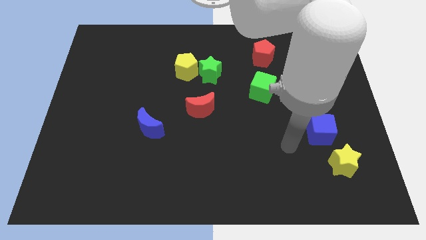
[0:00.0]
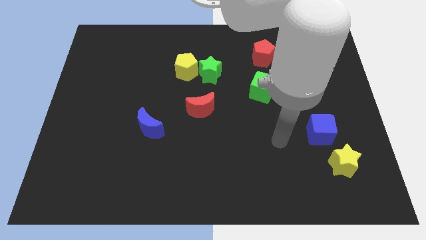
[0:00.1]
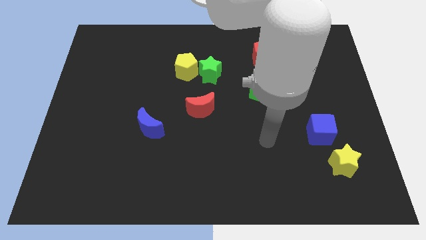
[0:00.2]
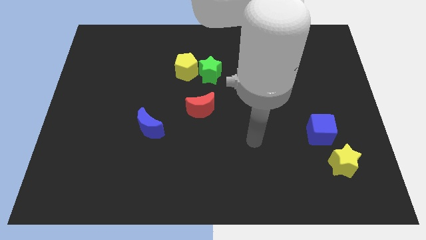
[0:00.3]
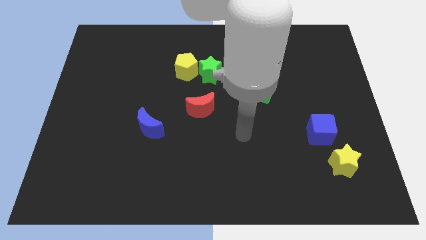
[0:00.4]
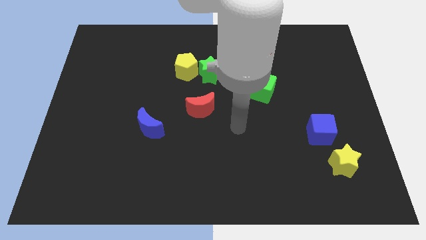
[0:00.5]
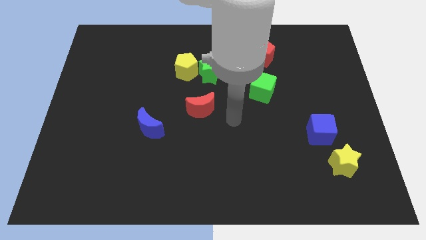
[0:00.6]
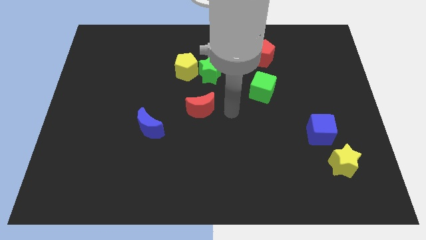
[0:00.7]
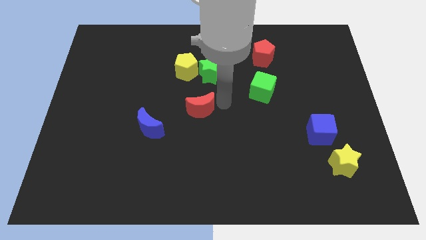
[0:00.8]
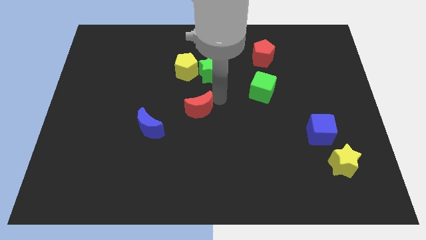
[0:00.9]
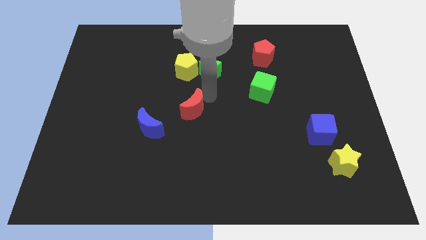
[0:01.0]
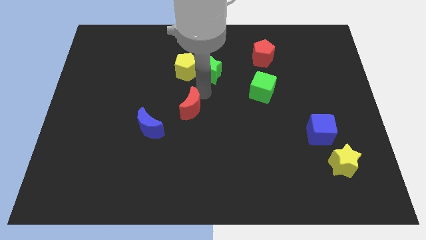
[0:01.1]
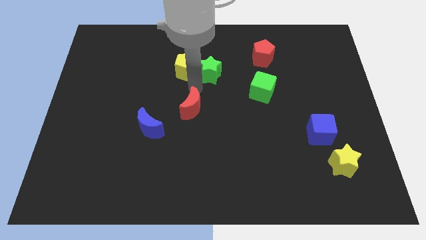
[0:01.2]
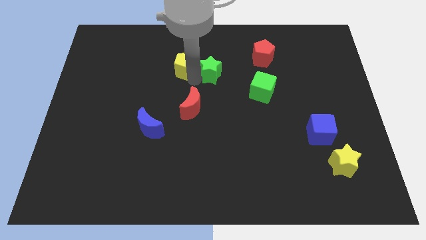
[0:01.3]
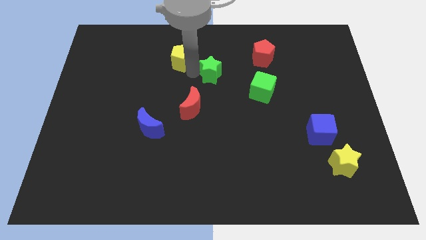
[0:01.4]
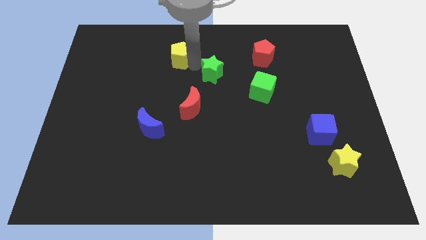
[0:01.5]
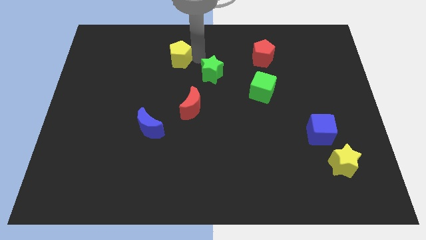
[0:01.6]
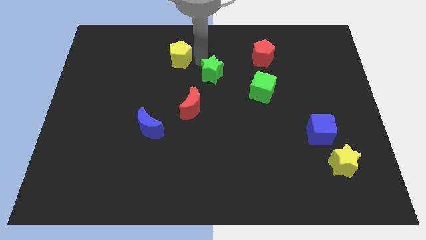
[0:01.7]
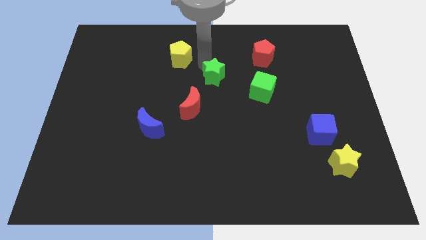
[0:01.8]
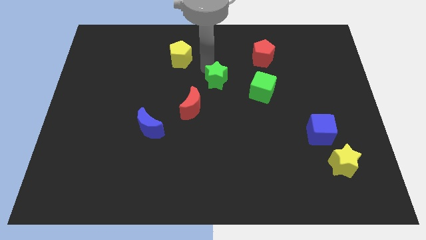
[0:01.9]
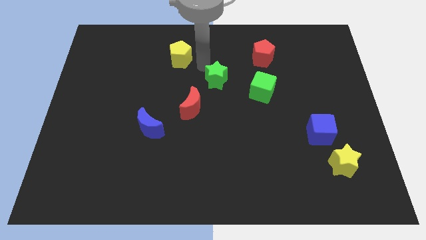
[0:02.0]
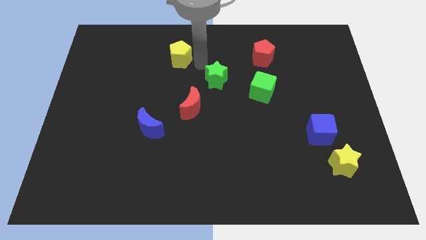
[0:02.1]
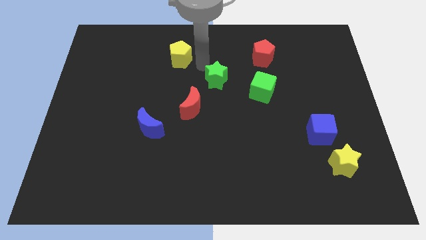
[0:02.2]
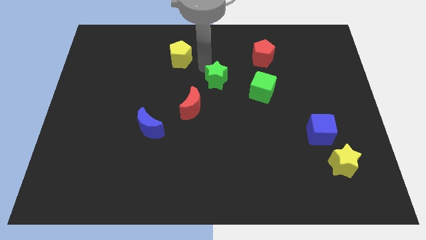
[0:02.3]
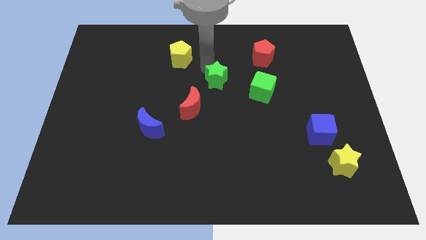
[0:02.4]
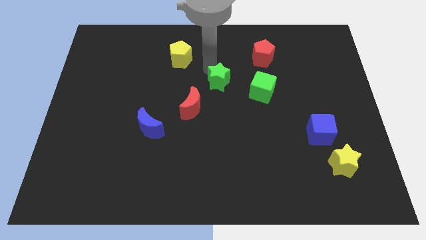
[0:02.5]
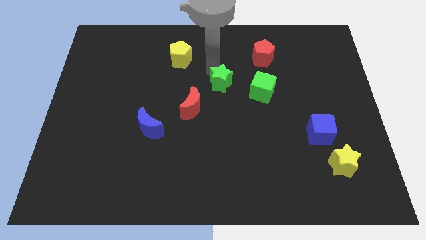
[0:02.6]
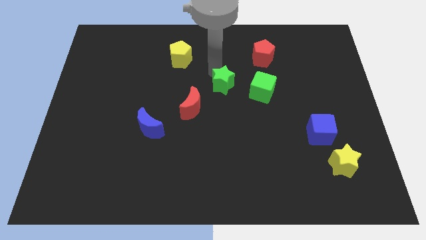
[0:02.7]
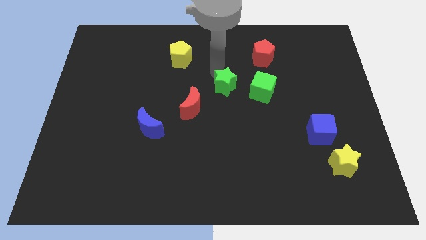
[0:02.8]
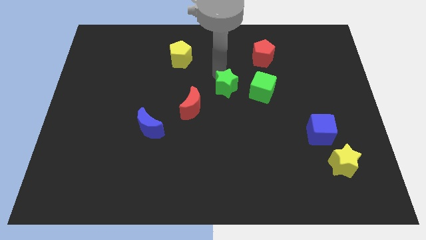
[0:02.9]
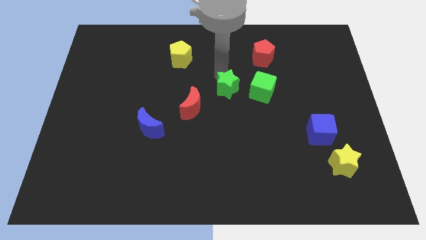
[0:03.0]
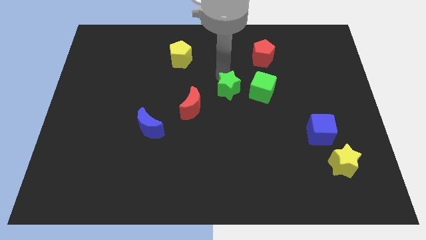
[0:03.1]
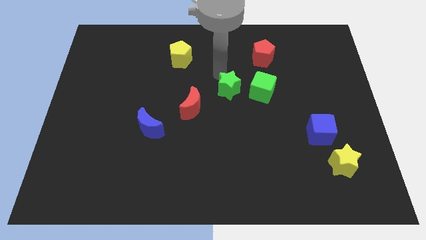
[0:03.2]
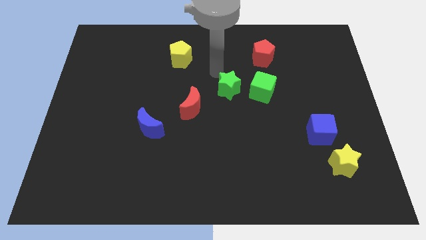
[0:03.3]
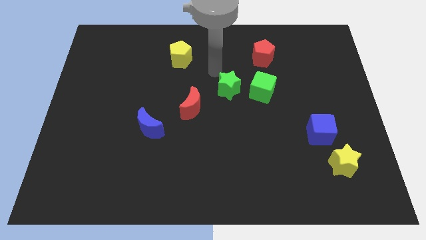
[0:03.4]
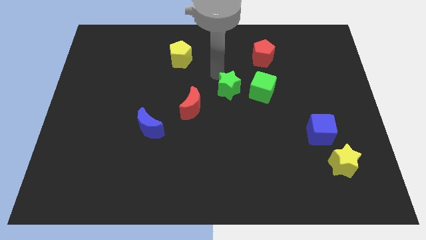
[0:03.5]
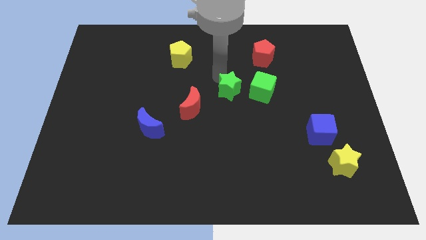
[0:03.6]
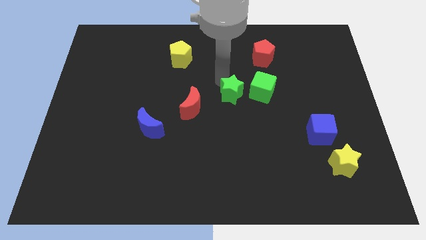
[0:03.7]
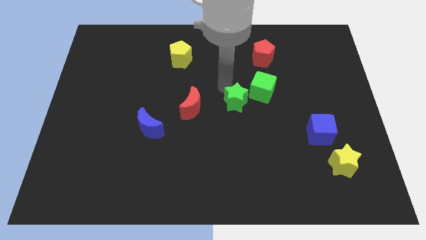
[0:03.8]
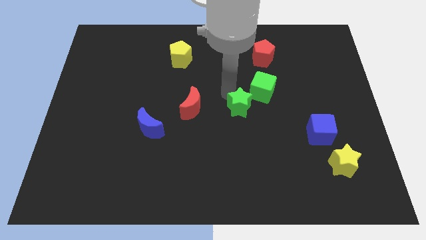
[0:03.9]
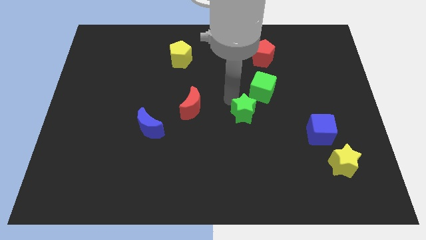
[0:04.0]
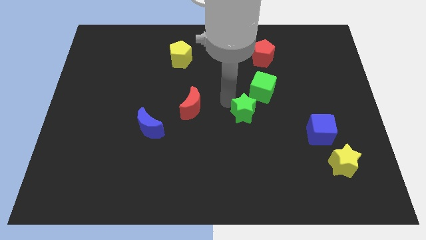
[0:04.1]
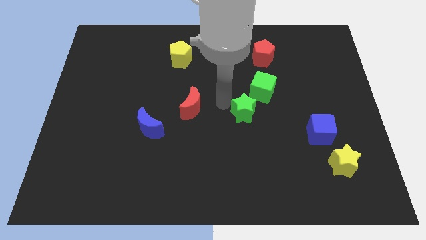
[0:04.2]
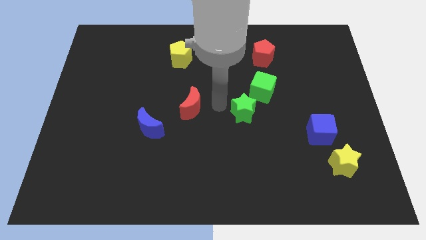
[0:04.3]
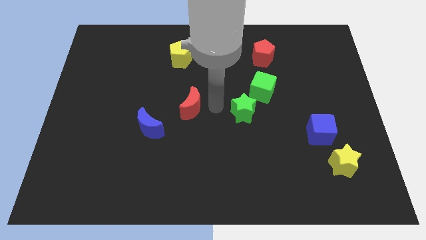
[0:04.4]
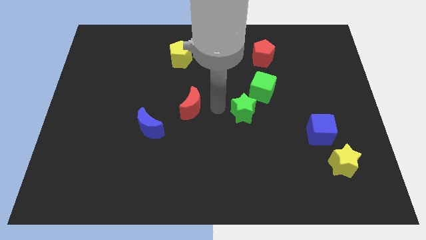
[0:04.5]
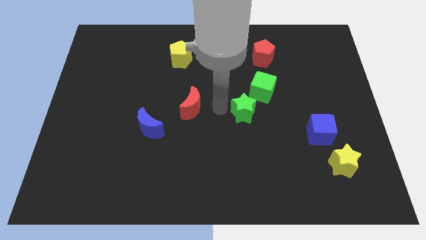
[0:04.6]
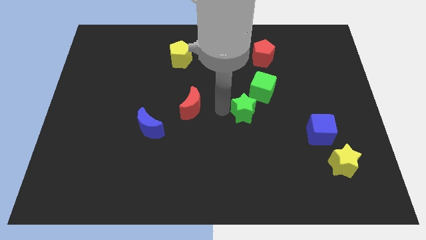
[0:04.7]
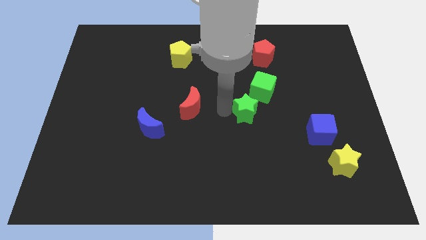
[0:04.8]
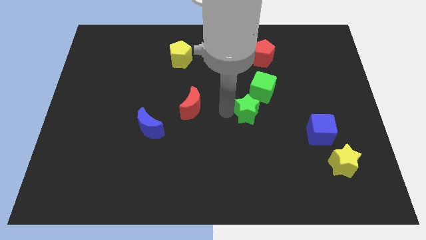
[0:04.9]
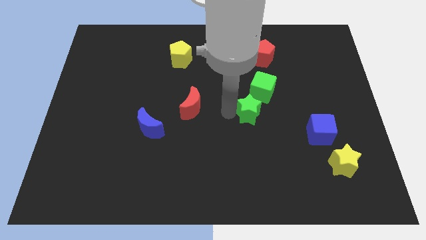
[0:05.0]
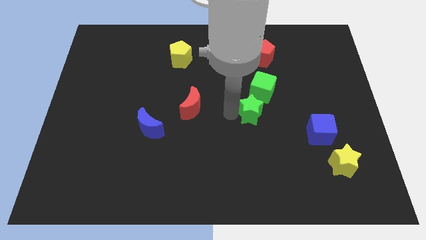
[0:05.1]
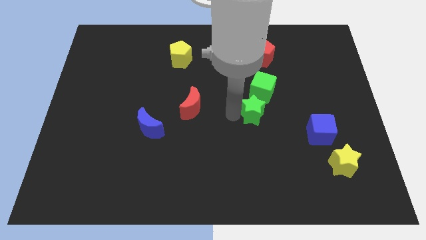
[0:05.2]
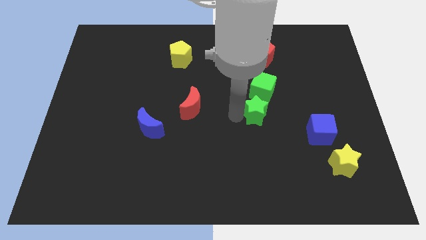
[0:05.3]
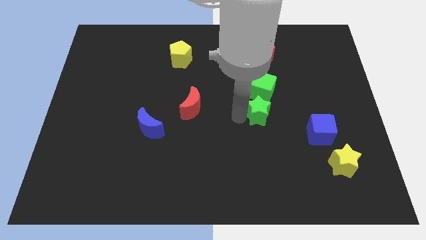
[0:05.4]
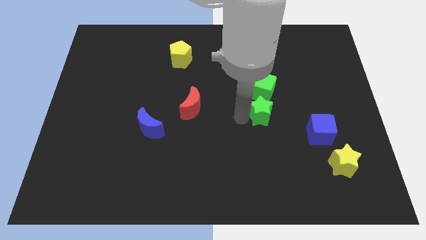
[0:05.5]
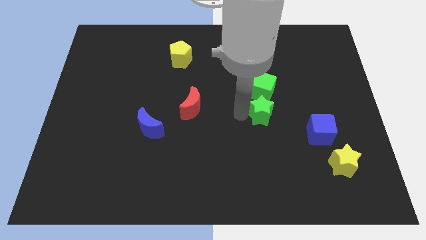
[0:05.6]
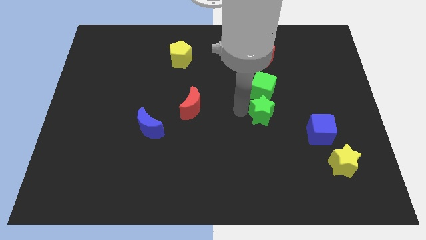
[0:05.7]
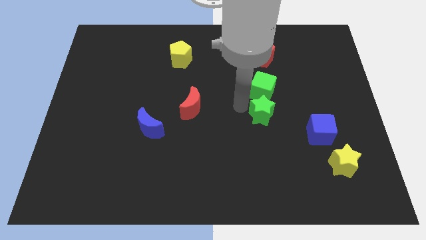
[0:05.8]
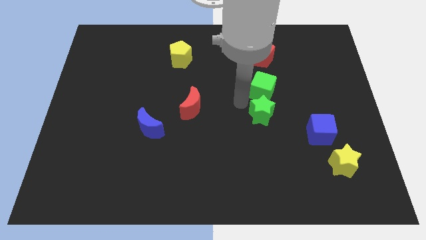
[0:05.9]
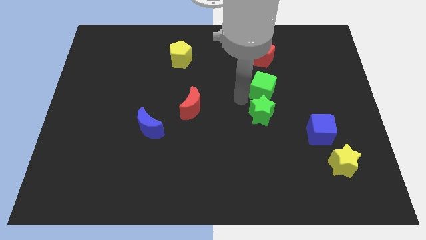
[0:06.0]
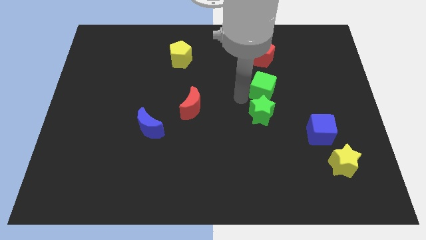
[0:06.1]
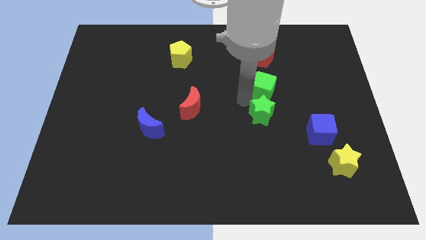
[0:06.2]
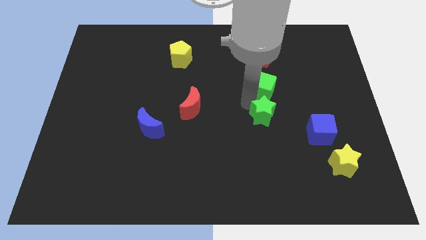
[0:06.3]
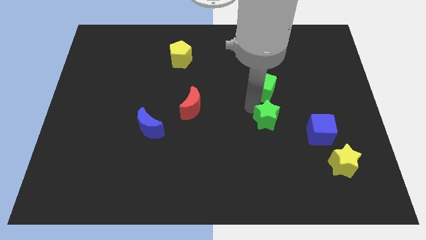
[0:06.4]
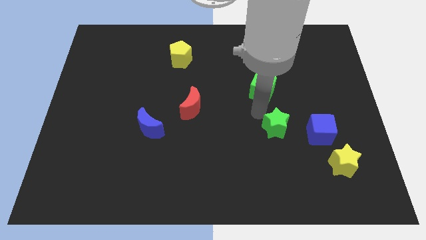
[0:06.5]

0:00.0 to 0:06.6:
move the green star down and to the right

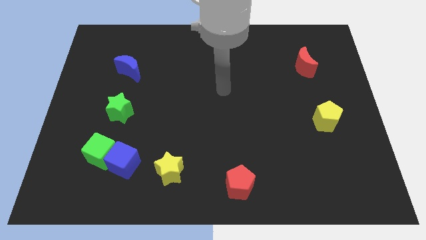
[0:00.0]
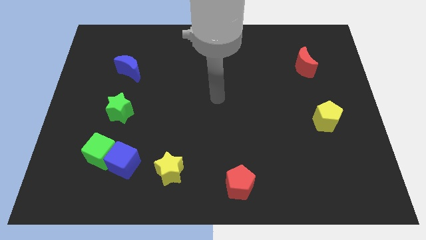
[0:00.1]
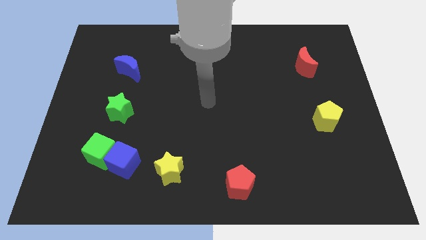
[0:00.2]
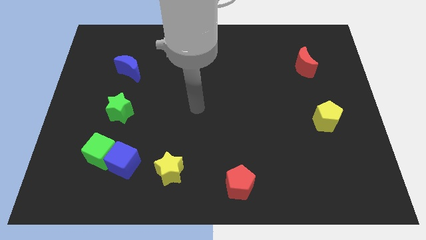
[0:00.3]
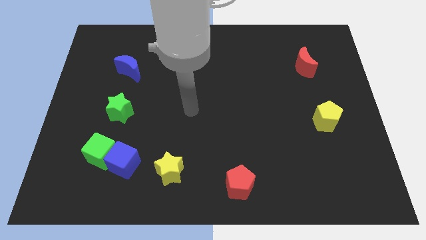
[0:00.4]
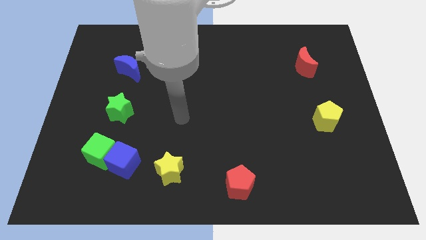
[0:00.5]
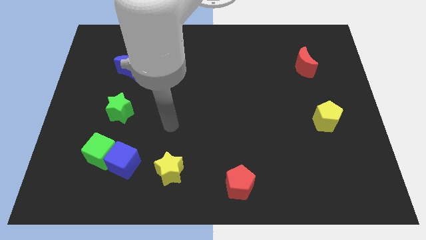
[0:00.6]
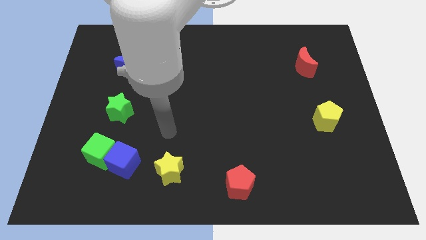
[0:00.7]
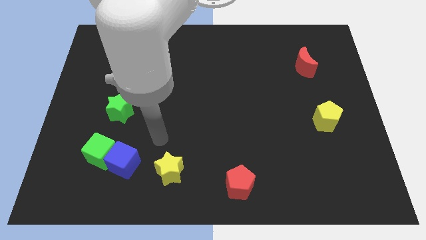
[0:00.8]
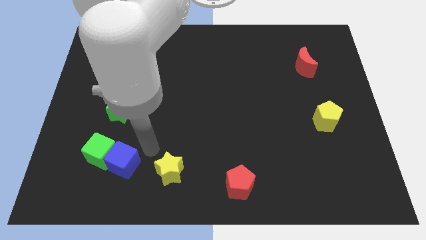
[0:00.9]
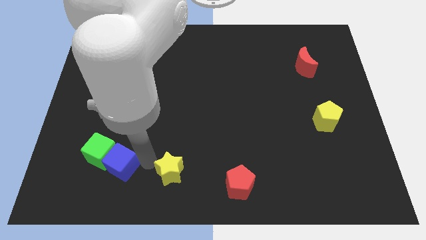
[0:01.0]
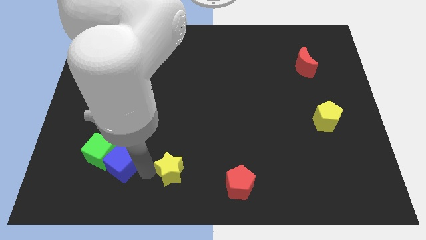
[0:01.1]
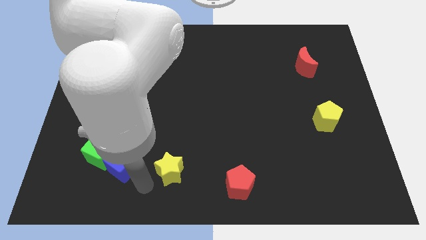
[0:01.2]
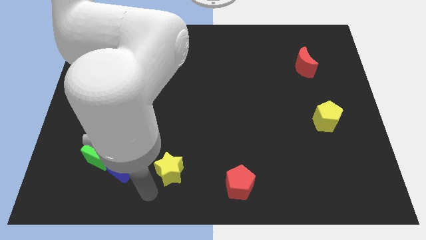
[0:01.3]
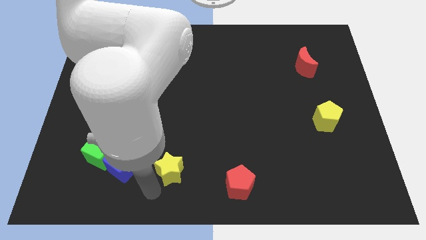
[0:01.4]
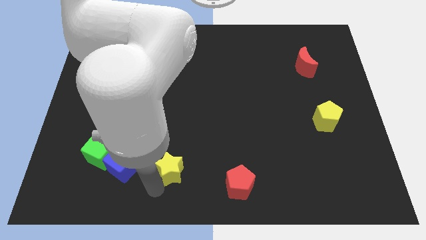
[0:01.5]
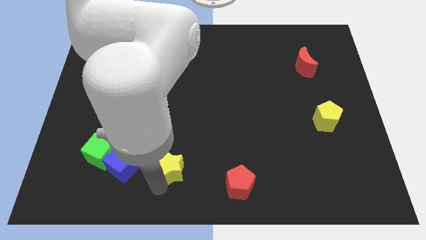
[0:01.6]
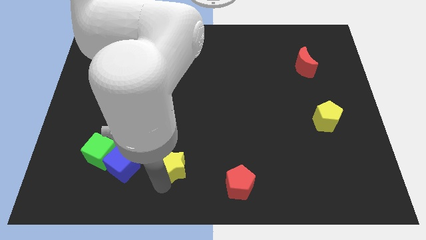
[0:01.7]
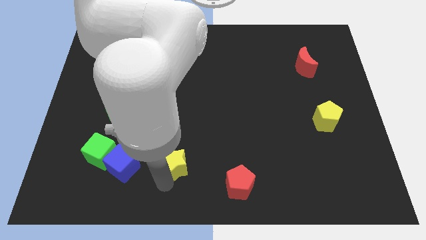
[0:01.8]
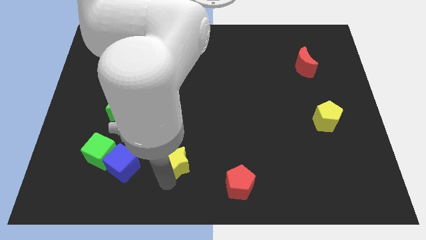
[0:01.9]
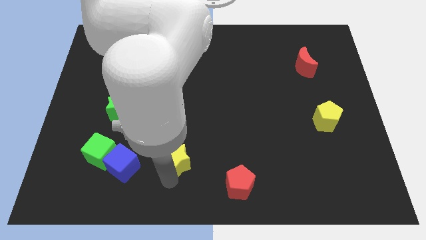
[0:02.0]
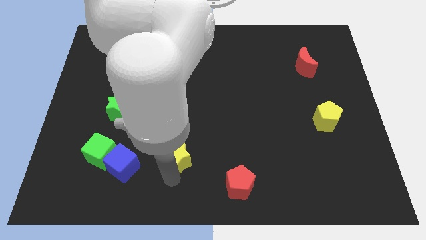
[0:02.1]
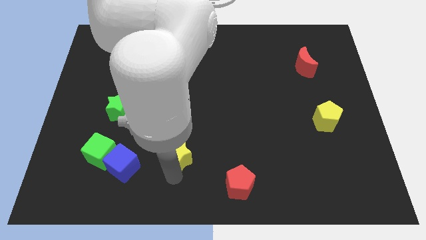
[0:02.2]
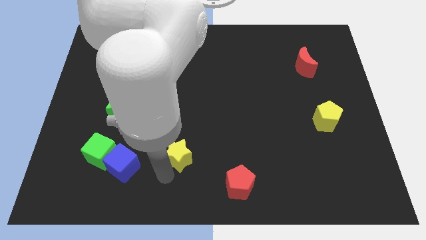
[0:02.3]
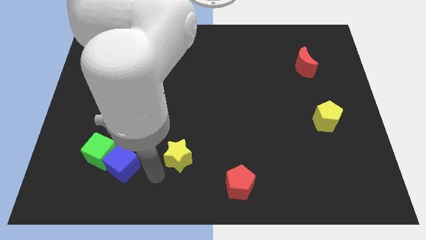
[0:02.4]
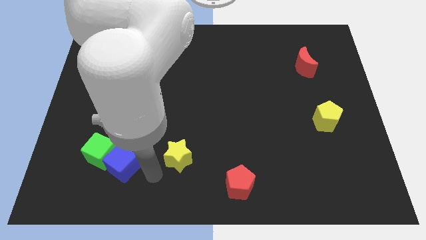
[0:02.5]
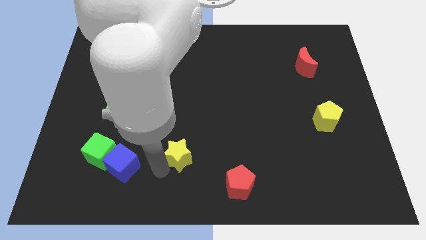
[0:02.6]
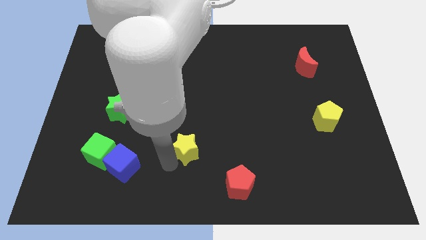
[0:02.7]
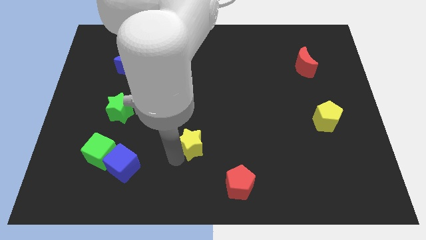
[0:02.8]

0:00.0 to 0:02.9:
slide the yellow star upwards and right a bit
